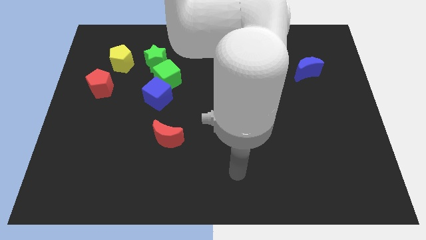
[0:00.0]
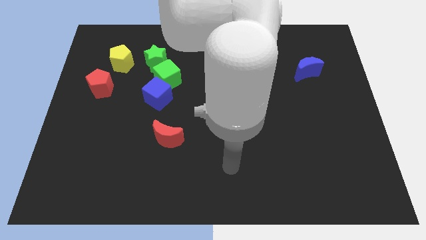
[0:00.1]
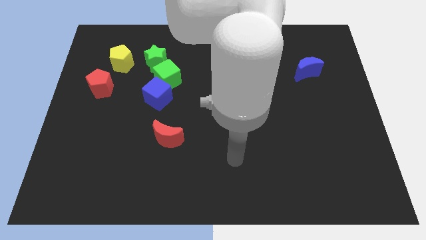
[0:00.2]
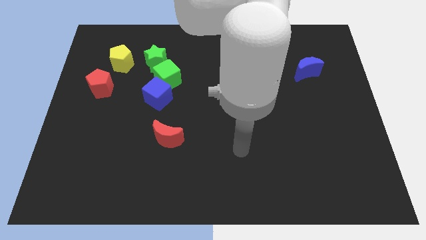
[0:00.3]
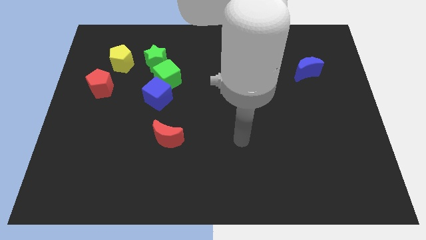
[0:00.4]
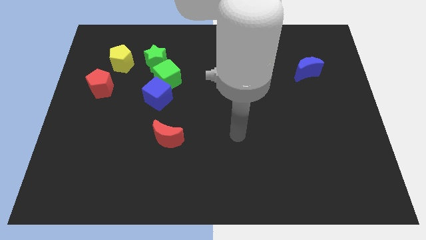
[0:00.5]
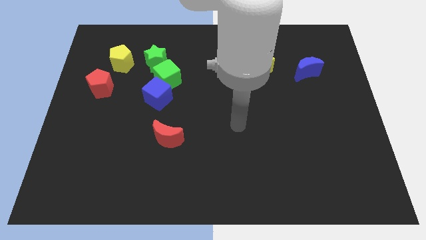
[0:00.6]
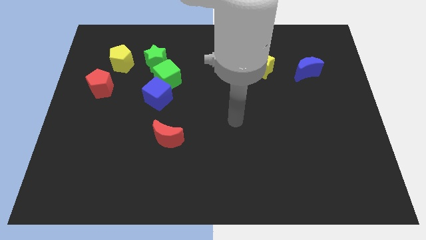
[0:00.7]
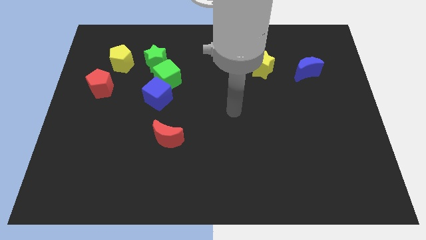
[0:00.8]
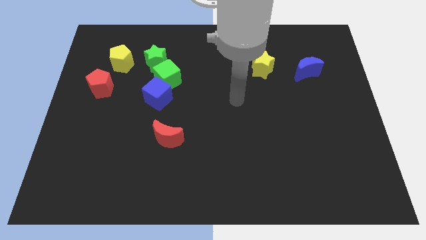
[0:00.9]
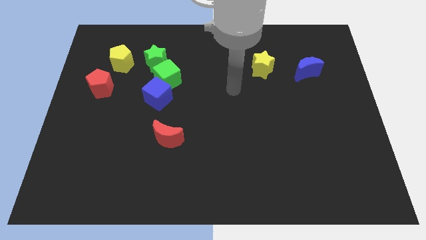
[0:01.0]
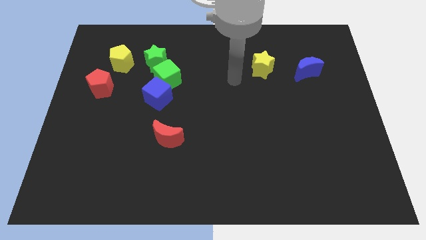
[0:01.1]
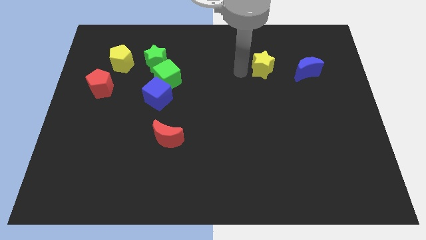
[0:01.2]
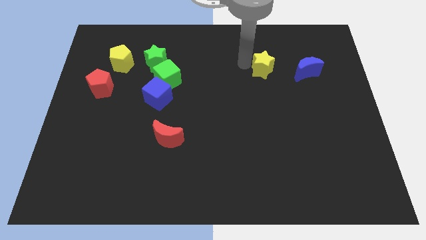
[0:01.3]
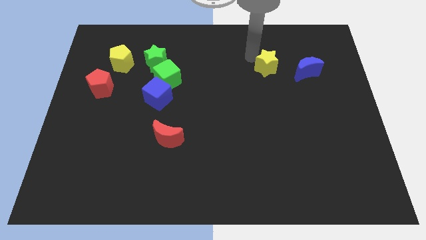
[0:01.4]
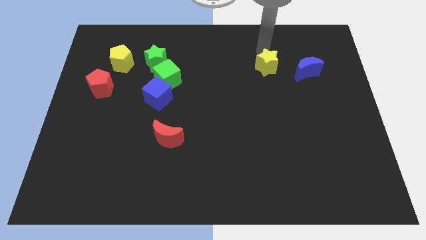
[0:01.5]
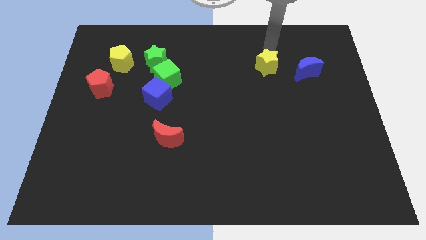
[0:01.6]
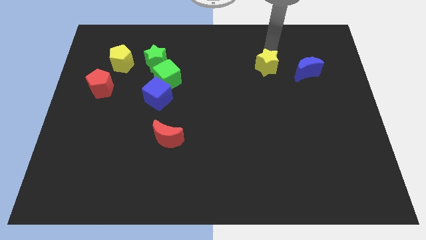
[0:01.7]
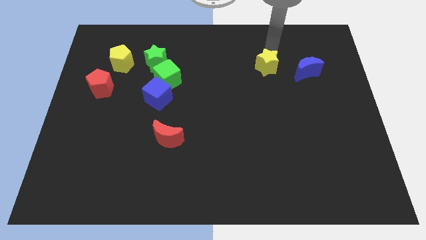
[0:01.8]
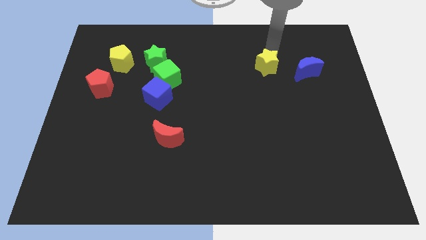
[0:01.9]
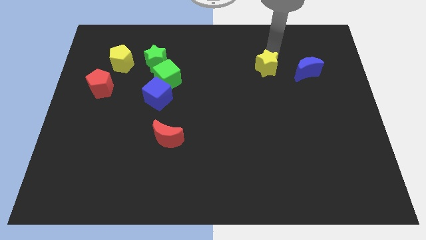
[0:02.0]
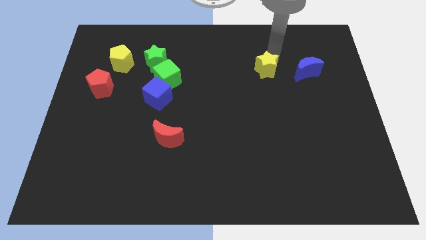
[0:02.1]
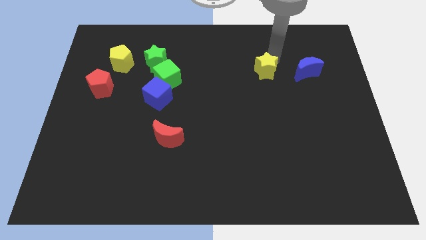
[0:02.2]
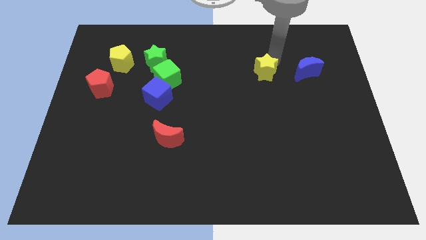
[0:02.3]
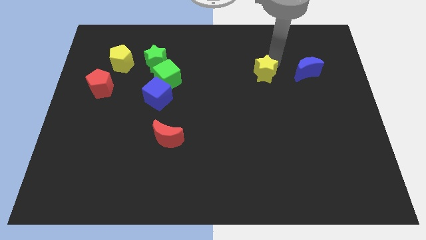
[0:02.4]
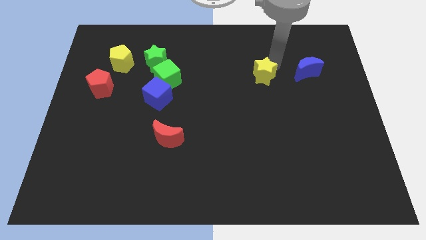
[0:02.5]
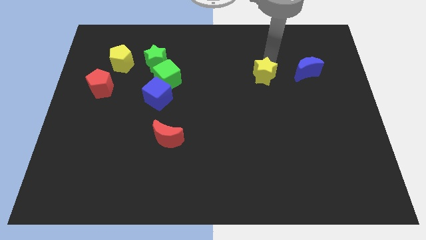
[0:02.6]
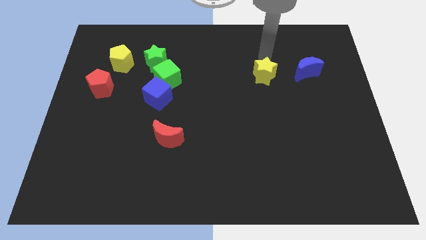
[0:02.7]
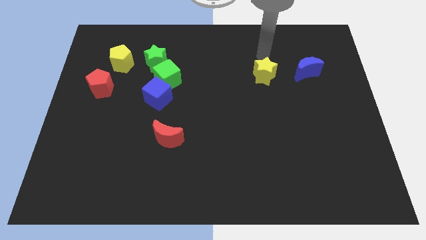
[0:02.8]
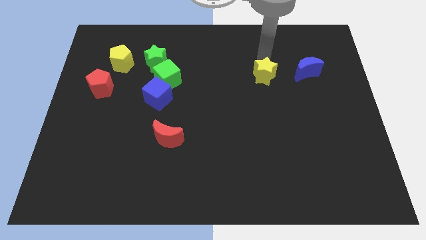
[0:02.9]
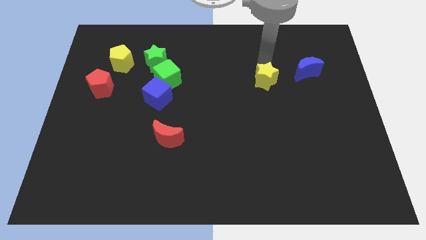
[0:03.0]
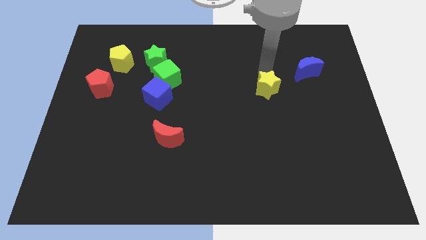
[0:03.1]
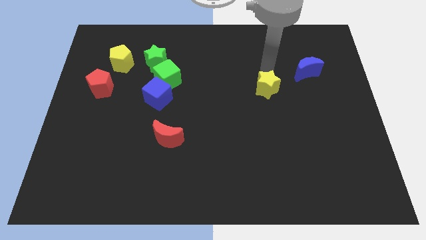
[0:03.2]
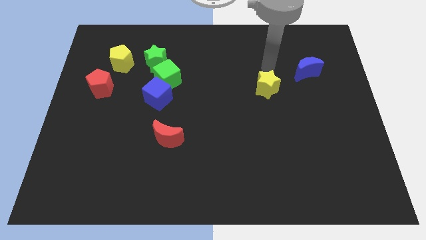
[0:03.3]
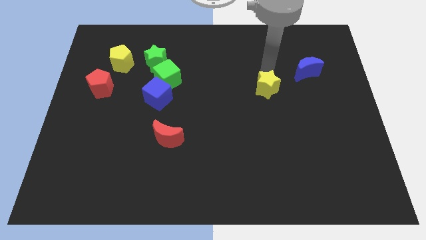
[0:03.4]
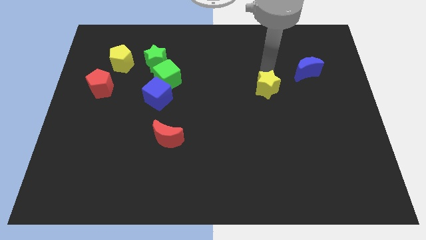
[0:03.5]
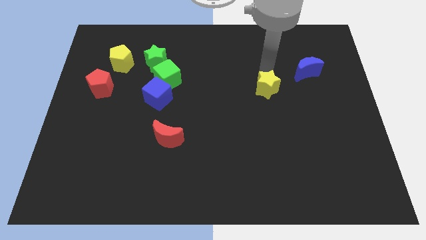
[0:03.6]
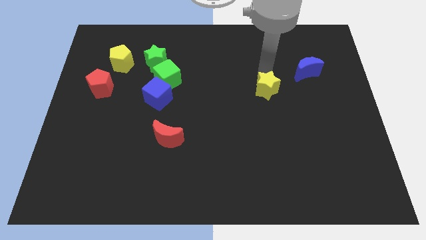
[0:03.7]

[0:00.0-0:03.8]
slightly push the yellow star downwards

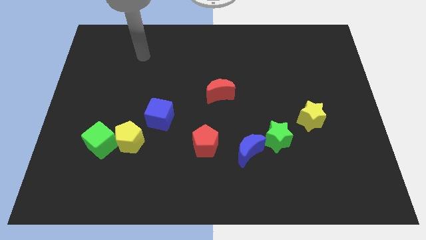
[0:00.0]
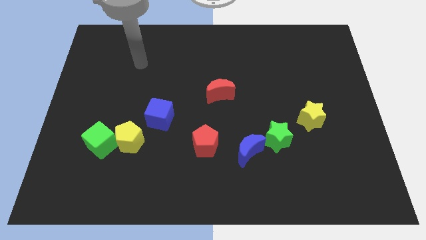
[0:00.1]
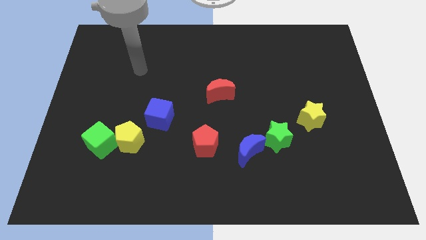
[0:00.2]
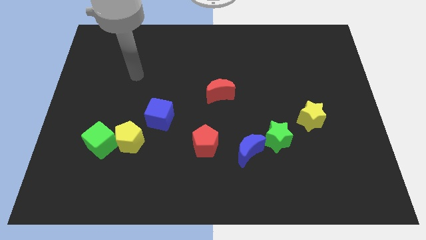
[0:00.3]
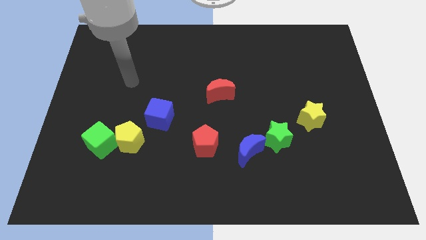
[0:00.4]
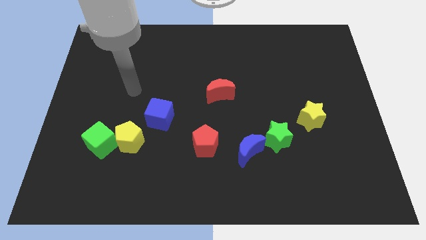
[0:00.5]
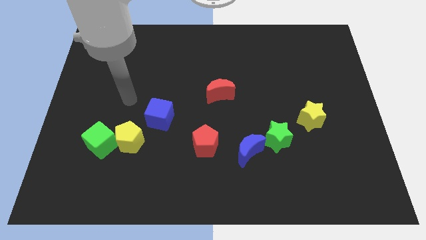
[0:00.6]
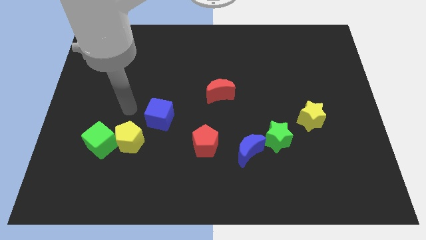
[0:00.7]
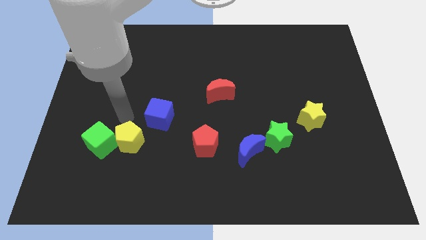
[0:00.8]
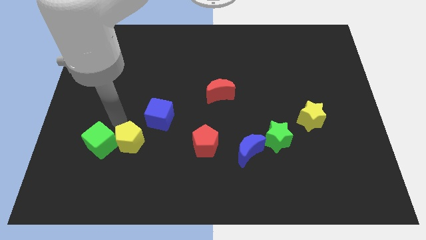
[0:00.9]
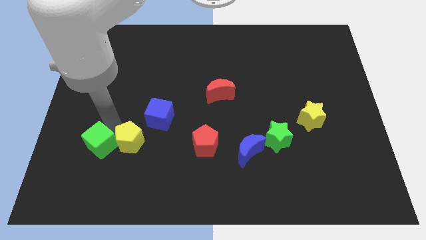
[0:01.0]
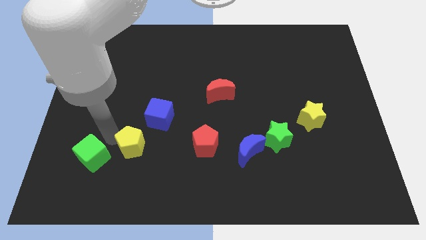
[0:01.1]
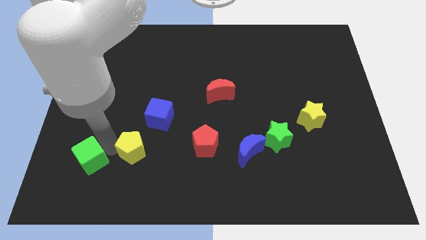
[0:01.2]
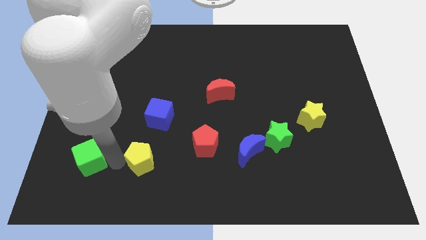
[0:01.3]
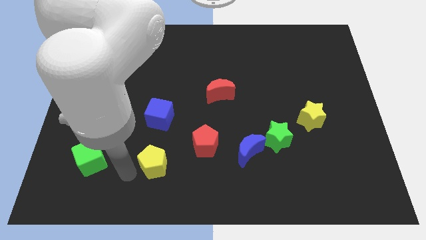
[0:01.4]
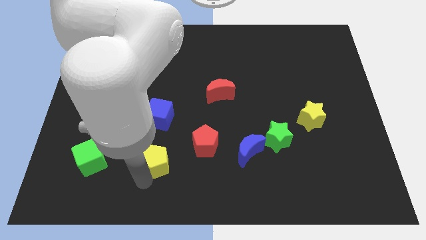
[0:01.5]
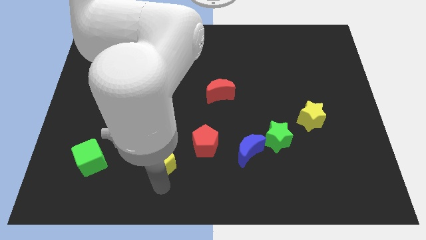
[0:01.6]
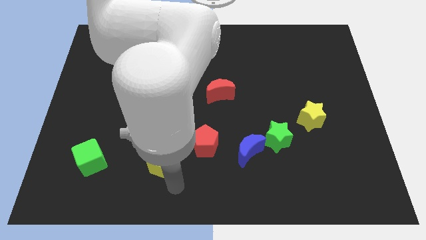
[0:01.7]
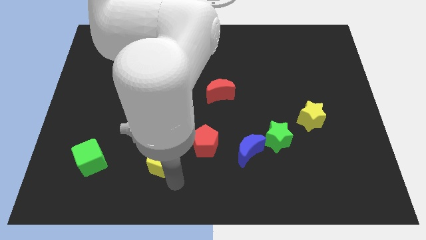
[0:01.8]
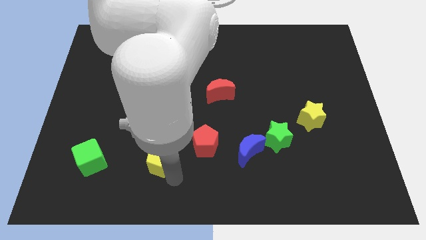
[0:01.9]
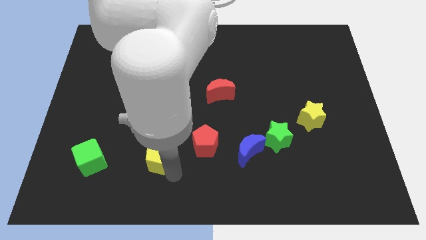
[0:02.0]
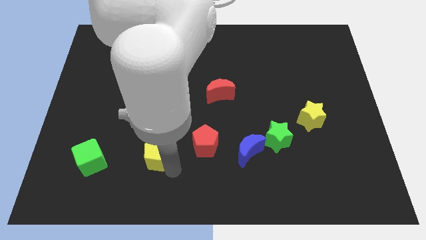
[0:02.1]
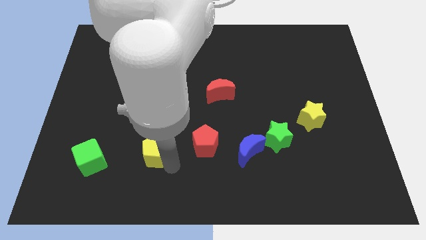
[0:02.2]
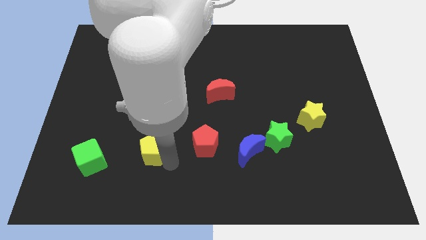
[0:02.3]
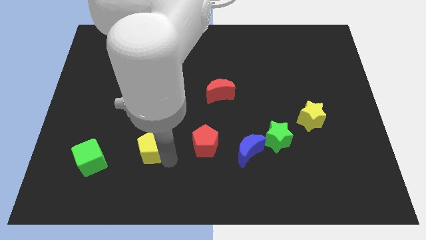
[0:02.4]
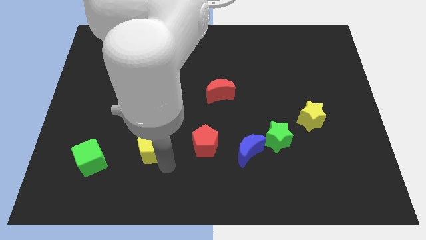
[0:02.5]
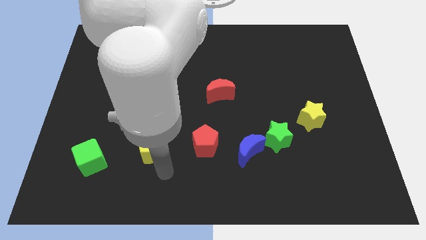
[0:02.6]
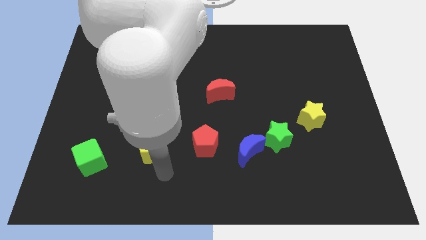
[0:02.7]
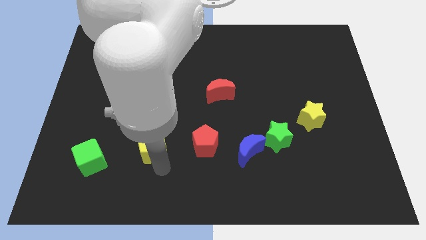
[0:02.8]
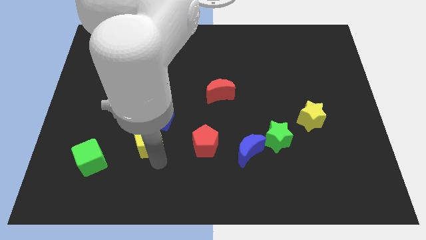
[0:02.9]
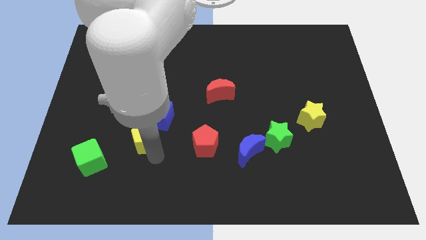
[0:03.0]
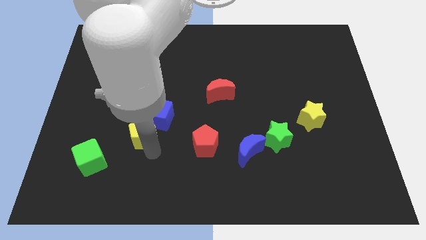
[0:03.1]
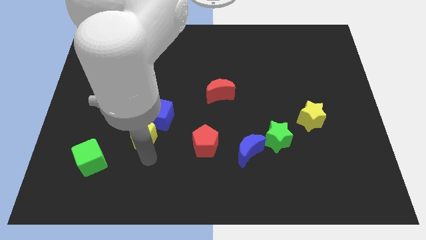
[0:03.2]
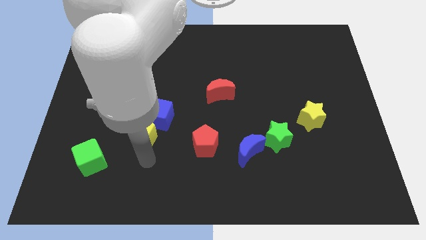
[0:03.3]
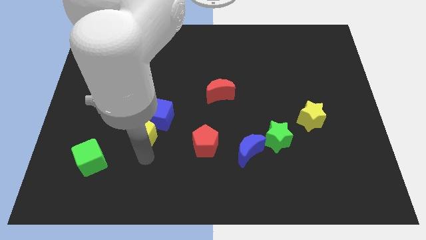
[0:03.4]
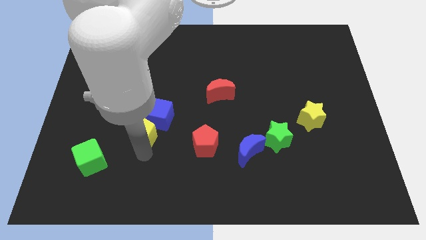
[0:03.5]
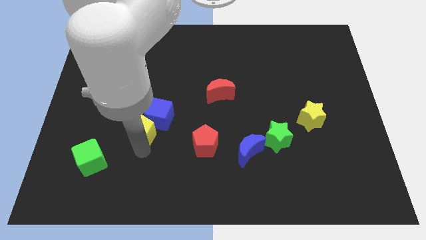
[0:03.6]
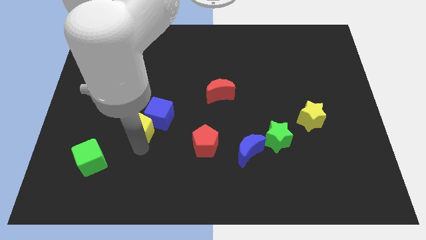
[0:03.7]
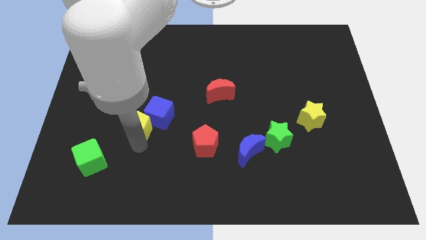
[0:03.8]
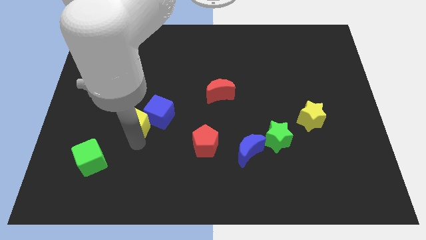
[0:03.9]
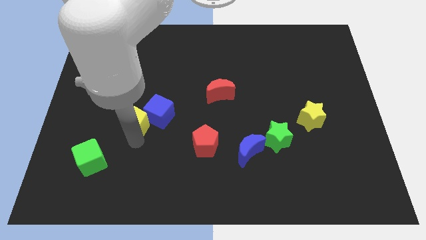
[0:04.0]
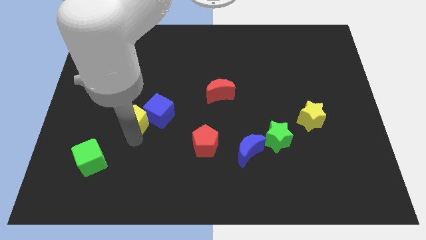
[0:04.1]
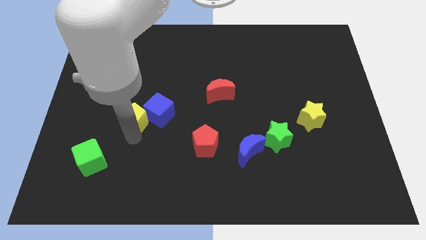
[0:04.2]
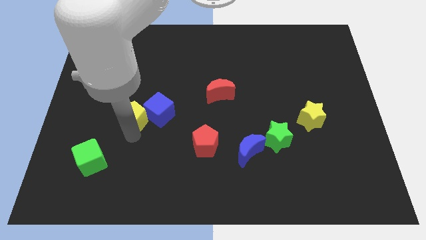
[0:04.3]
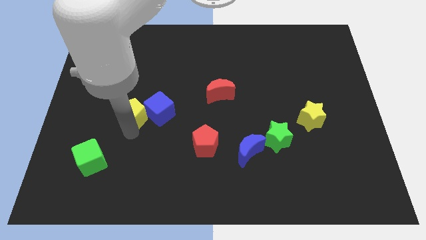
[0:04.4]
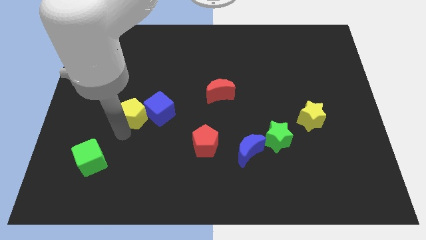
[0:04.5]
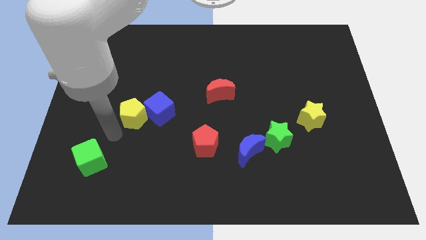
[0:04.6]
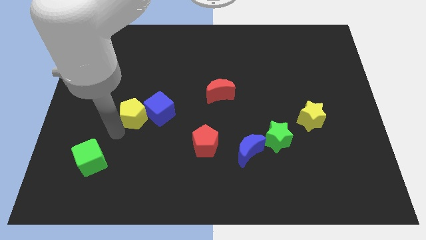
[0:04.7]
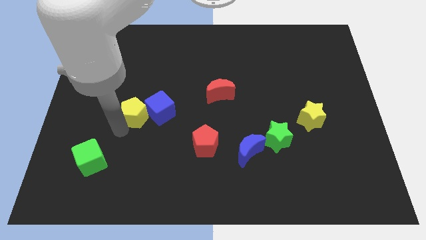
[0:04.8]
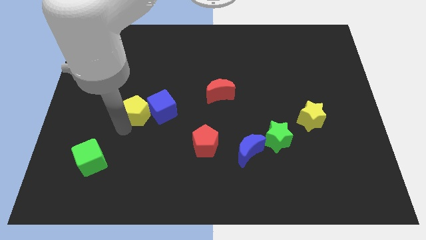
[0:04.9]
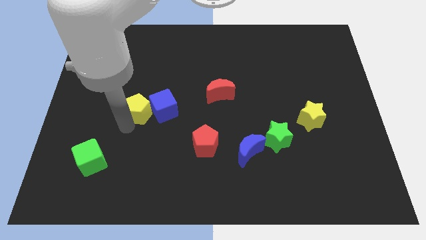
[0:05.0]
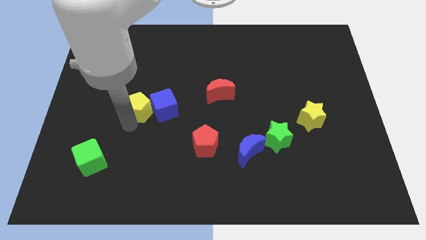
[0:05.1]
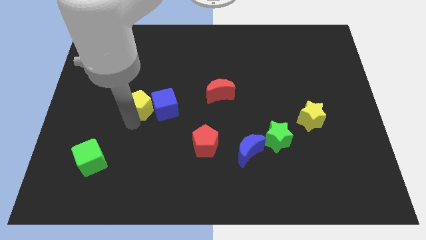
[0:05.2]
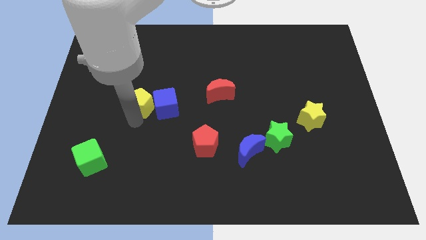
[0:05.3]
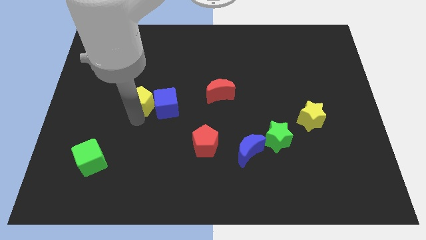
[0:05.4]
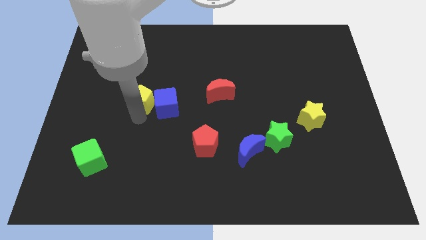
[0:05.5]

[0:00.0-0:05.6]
slightly move the yellow pentagon up and then to the right
